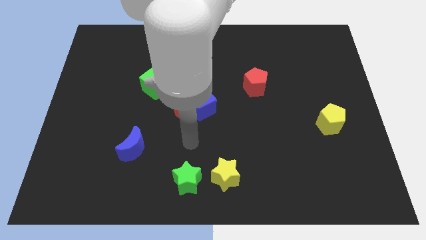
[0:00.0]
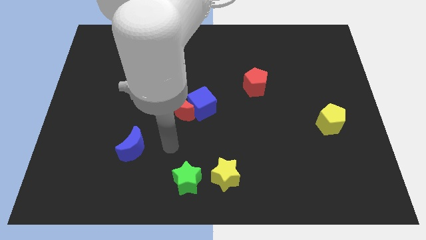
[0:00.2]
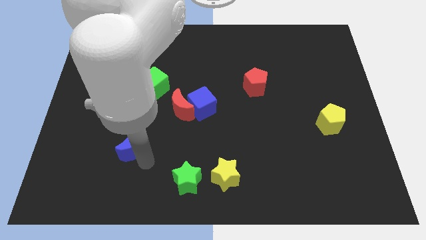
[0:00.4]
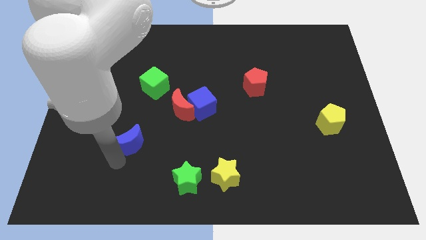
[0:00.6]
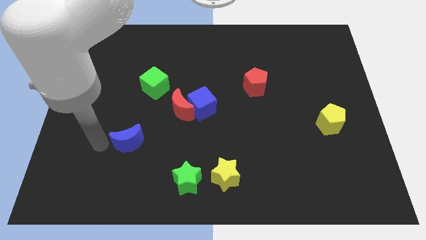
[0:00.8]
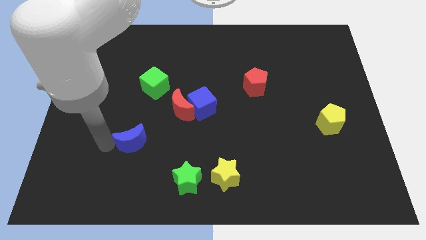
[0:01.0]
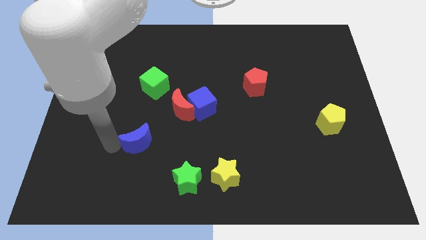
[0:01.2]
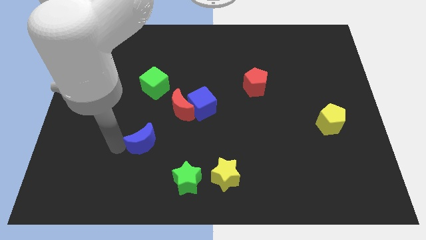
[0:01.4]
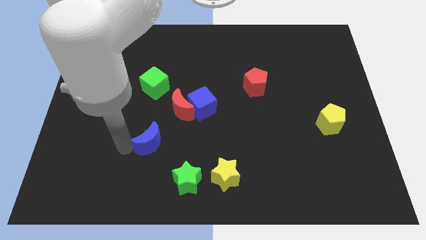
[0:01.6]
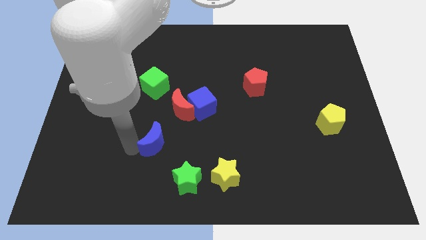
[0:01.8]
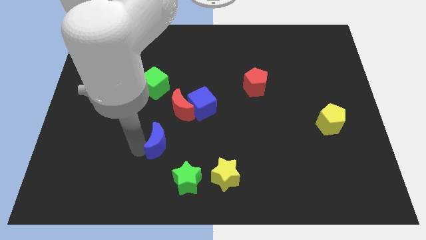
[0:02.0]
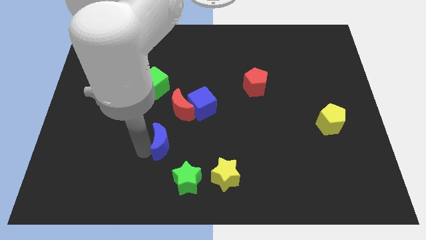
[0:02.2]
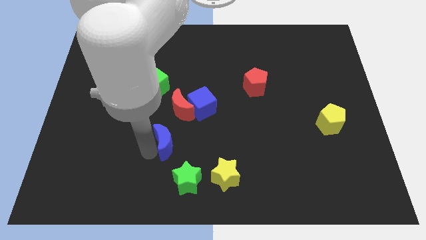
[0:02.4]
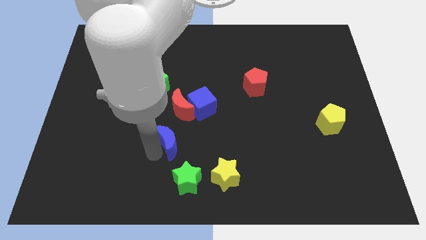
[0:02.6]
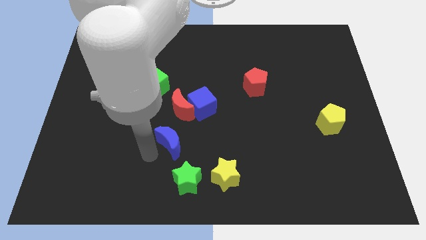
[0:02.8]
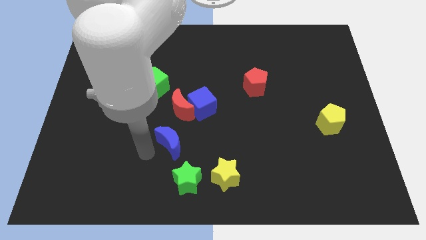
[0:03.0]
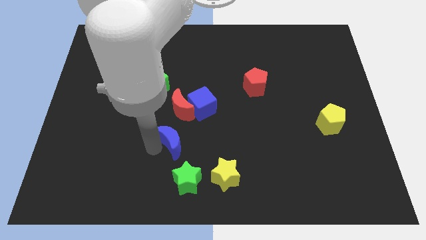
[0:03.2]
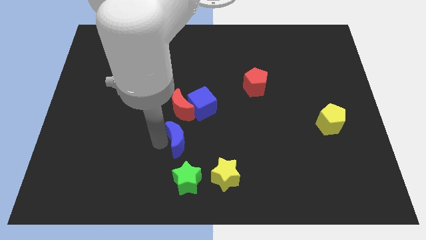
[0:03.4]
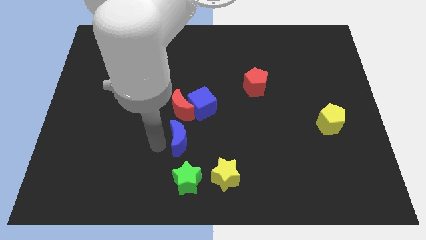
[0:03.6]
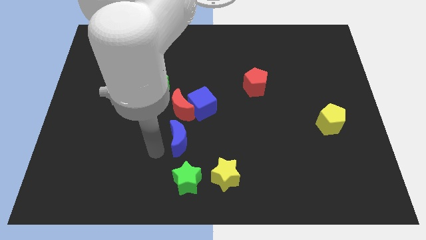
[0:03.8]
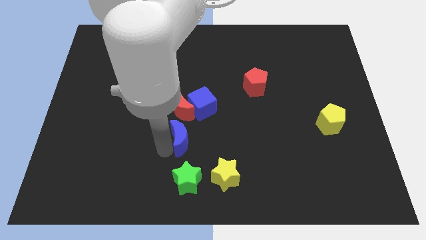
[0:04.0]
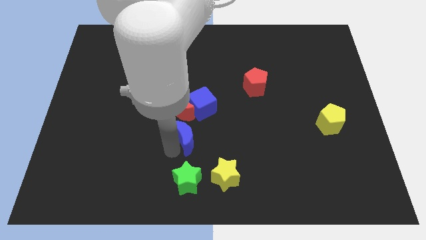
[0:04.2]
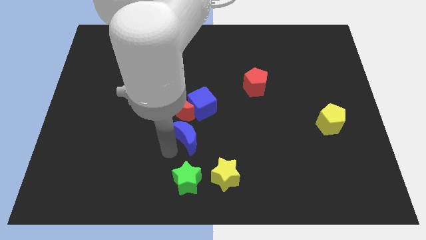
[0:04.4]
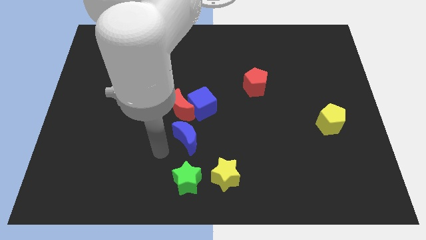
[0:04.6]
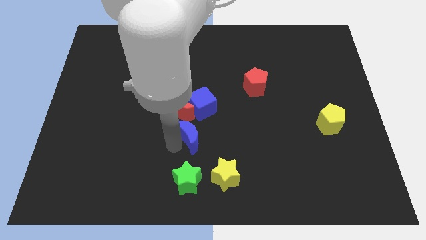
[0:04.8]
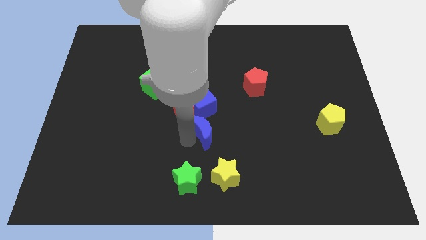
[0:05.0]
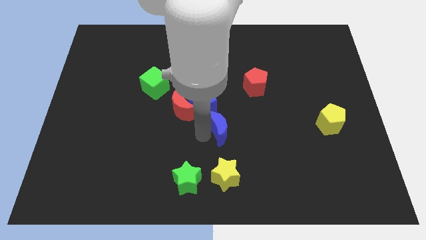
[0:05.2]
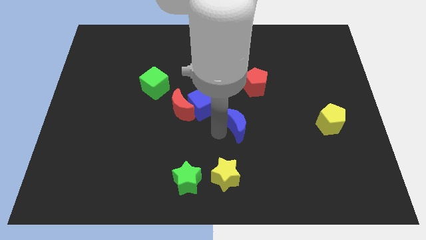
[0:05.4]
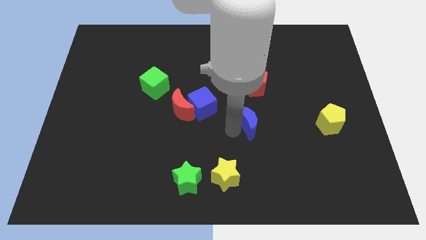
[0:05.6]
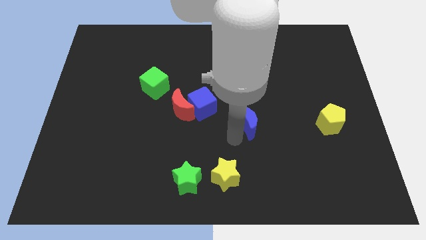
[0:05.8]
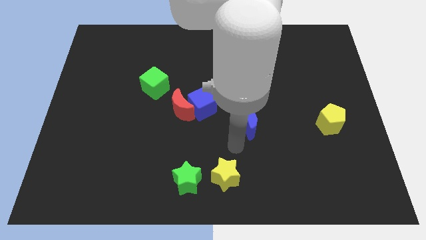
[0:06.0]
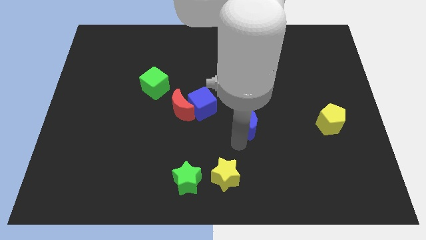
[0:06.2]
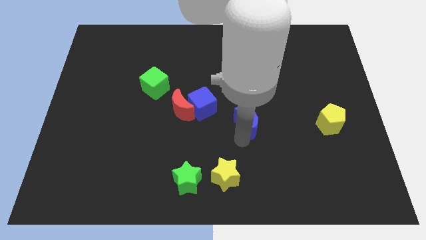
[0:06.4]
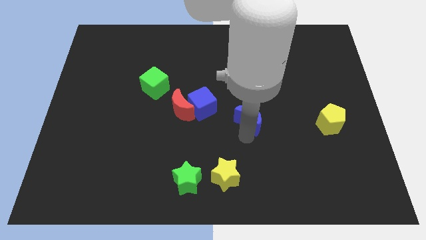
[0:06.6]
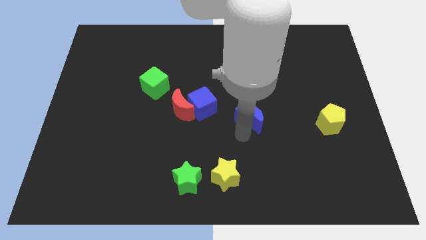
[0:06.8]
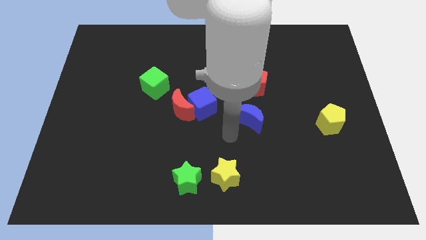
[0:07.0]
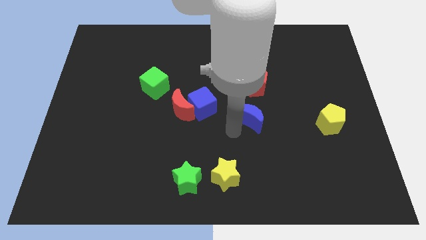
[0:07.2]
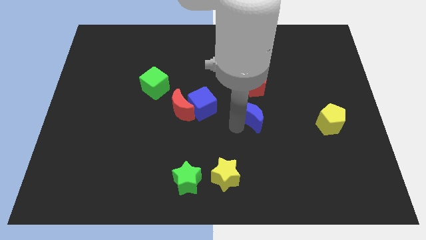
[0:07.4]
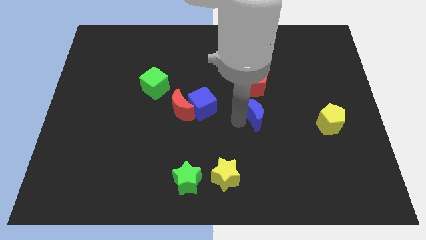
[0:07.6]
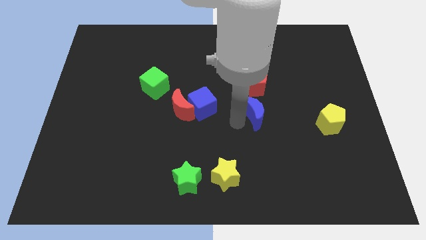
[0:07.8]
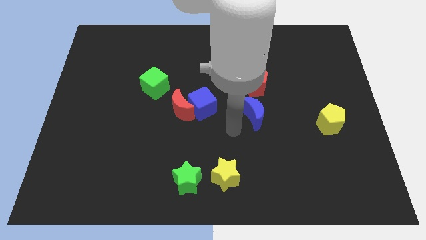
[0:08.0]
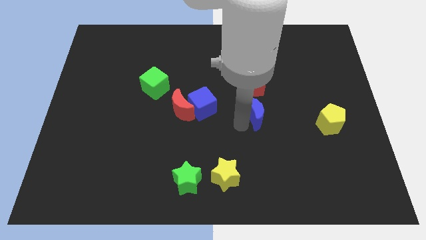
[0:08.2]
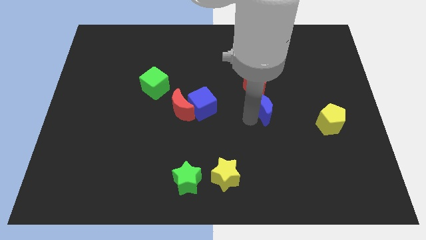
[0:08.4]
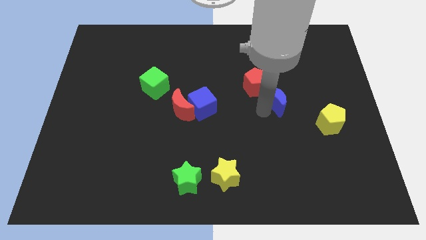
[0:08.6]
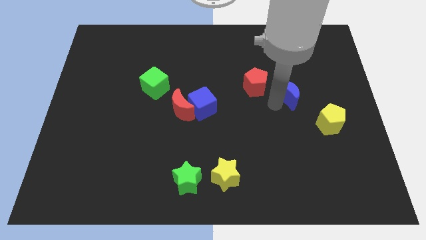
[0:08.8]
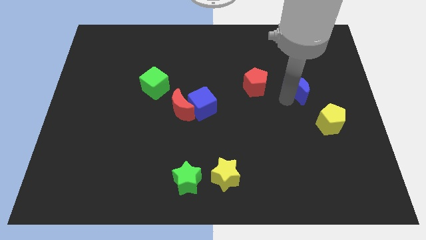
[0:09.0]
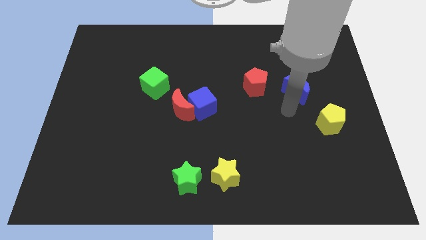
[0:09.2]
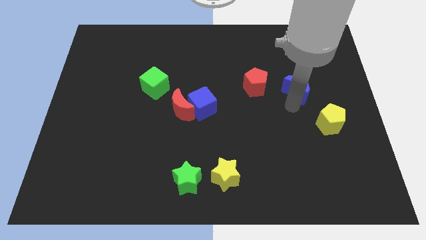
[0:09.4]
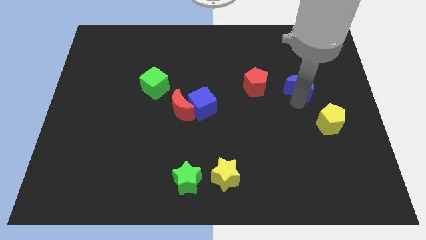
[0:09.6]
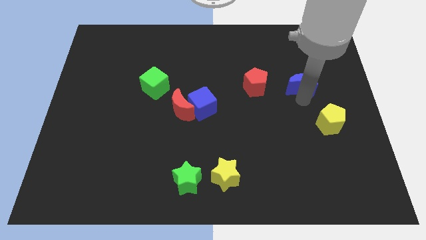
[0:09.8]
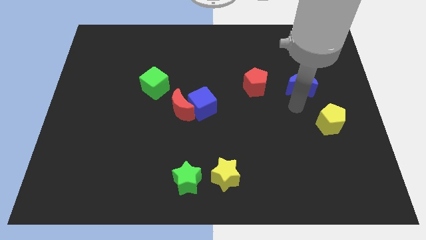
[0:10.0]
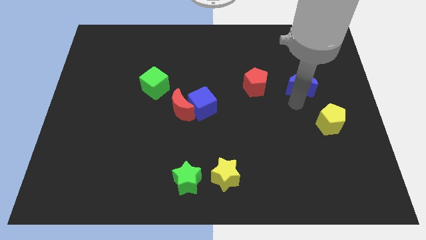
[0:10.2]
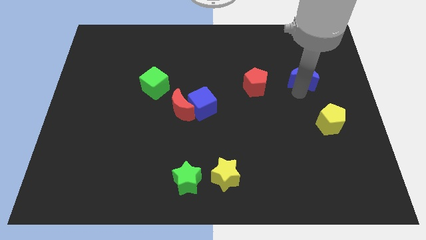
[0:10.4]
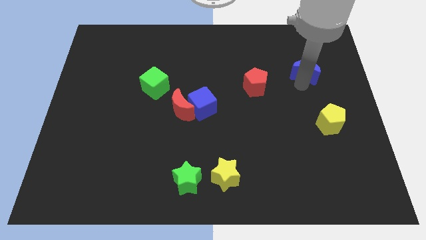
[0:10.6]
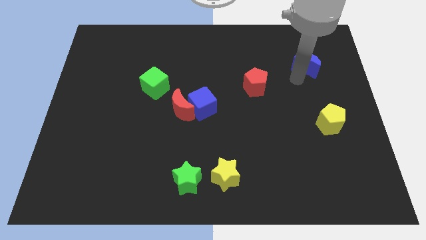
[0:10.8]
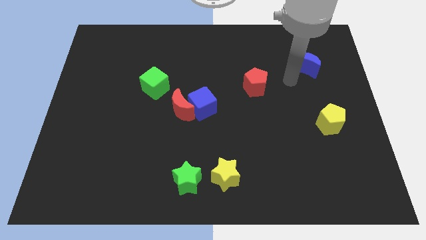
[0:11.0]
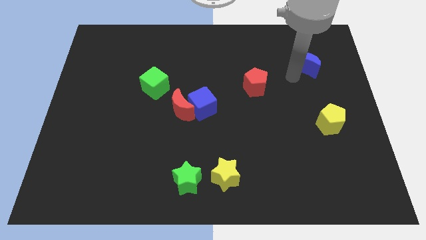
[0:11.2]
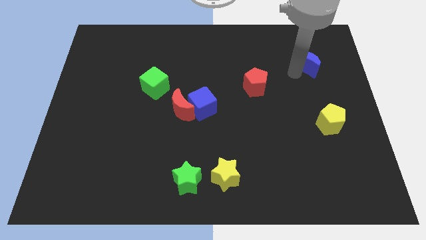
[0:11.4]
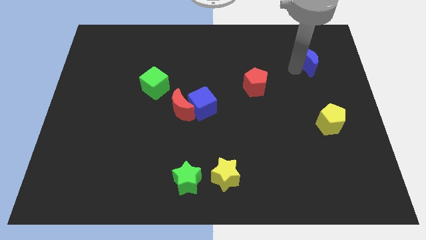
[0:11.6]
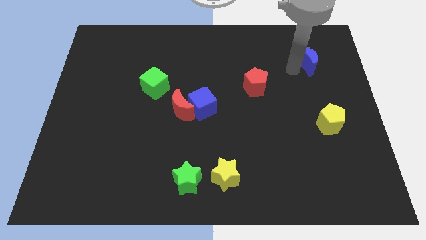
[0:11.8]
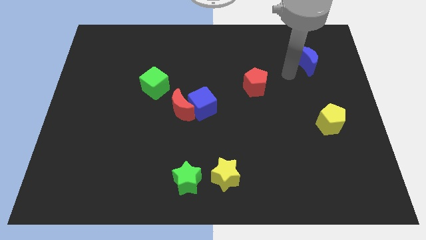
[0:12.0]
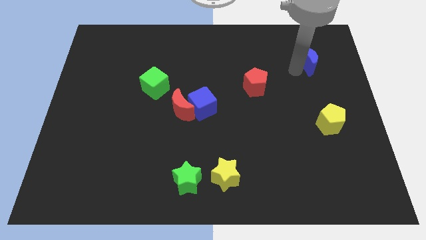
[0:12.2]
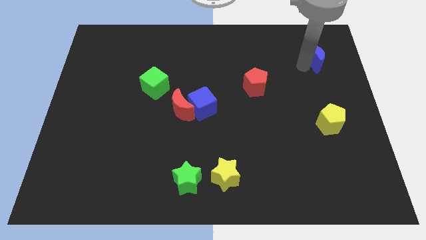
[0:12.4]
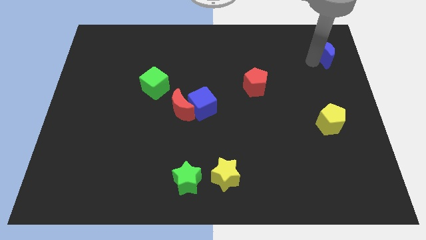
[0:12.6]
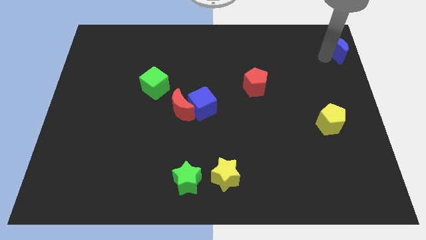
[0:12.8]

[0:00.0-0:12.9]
slide the blue moon to the top right corner
